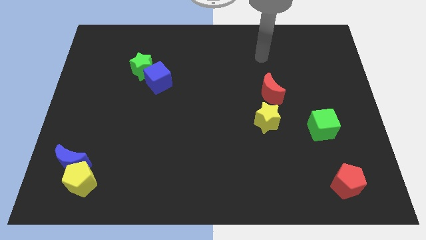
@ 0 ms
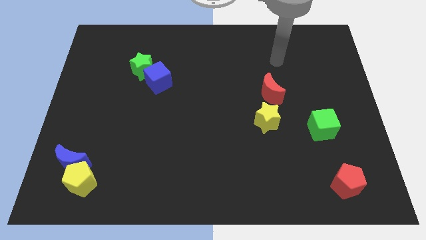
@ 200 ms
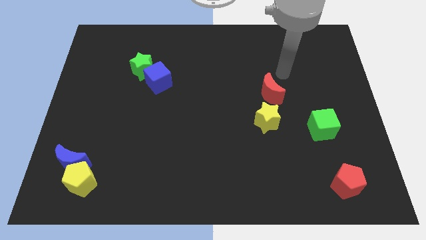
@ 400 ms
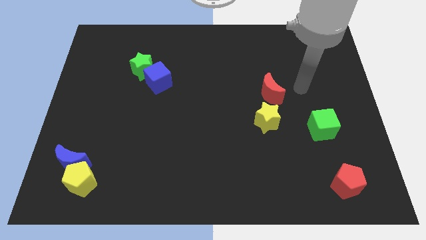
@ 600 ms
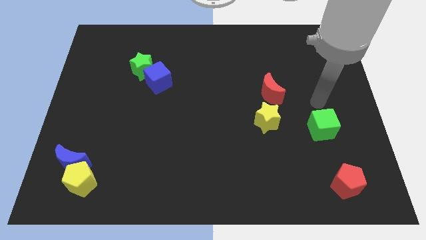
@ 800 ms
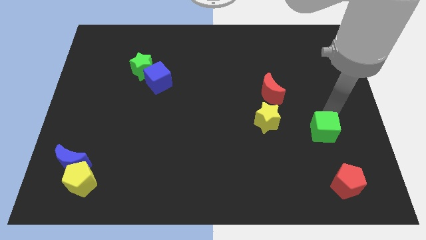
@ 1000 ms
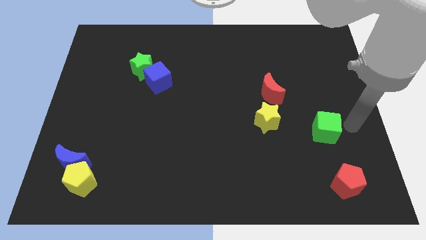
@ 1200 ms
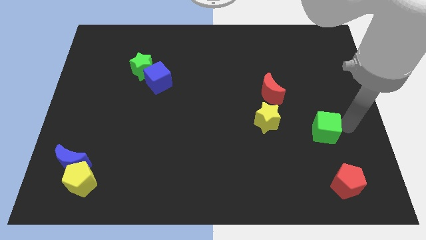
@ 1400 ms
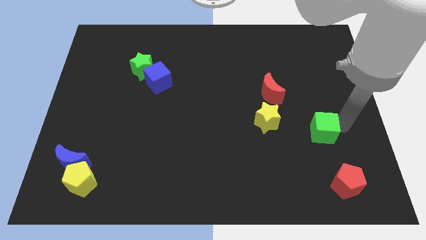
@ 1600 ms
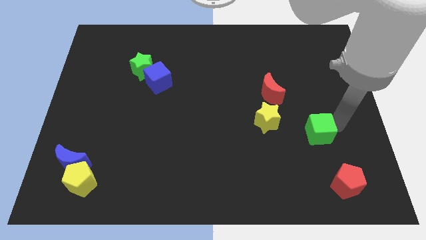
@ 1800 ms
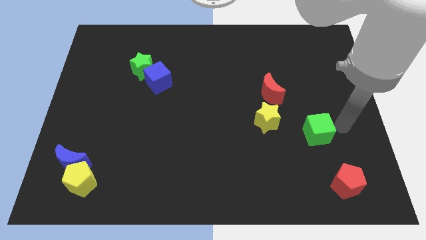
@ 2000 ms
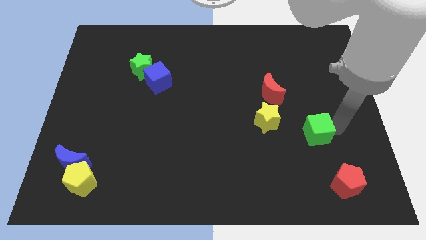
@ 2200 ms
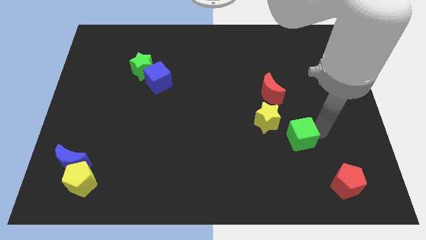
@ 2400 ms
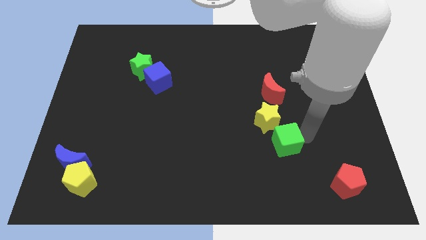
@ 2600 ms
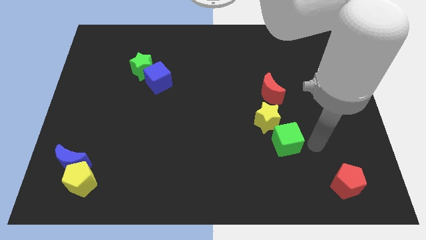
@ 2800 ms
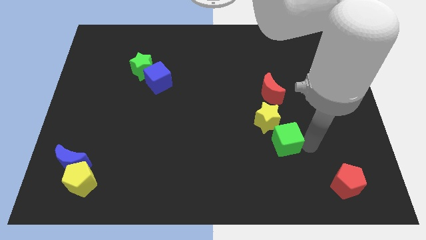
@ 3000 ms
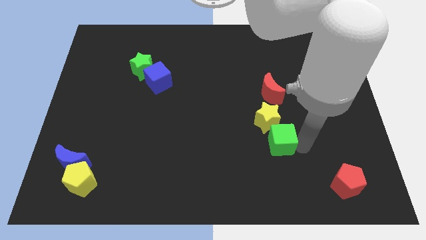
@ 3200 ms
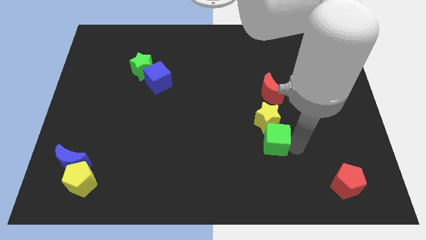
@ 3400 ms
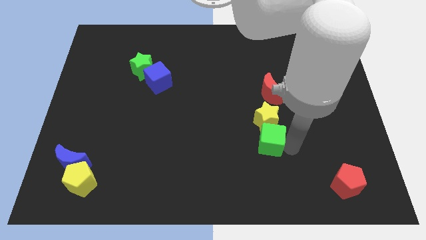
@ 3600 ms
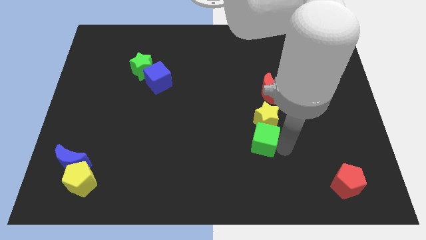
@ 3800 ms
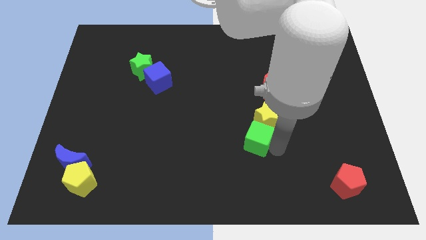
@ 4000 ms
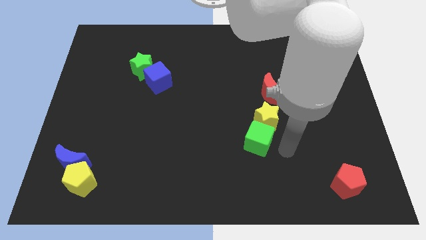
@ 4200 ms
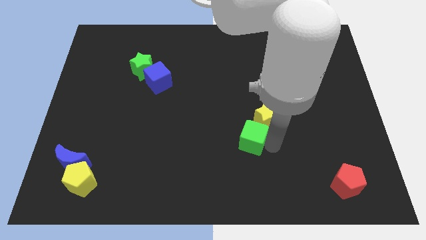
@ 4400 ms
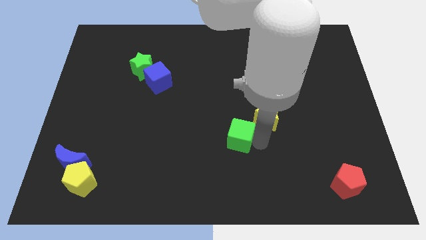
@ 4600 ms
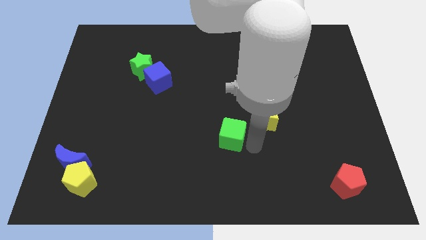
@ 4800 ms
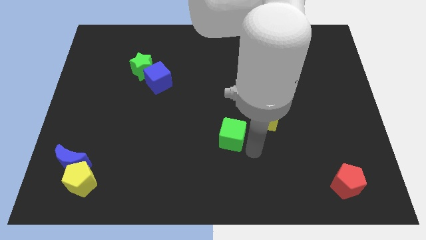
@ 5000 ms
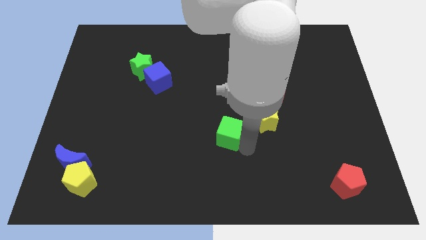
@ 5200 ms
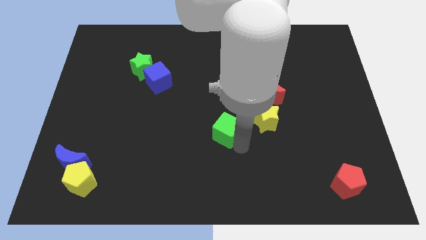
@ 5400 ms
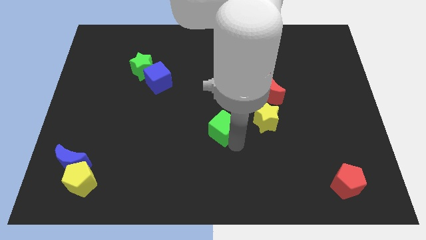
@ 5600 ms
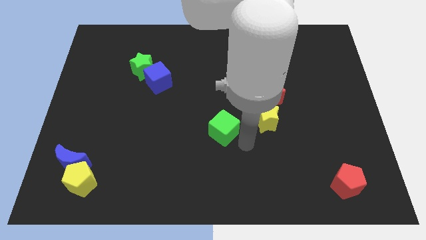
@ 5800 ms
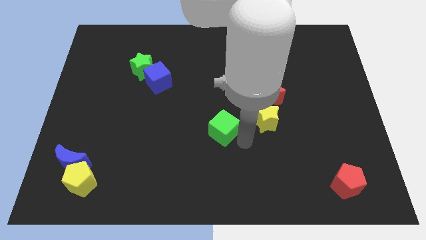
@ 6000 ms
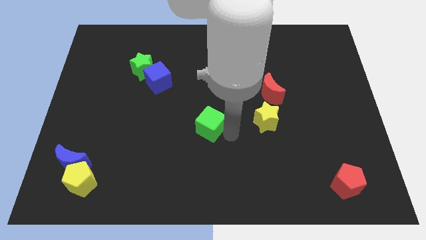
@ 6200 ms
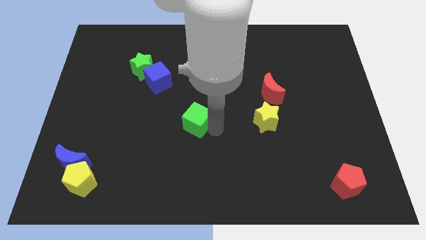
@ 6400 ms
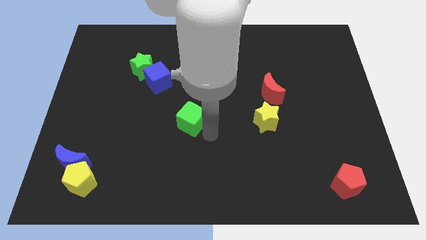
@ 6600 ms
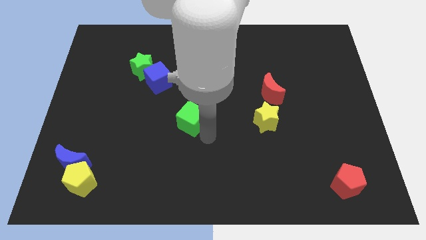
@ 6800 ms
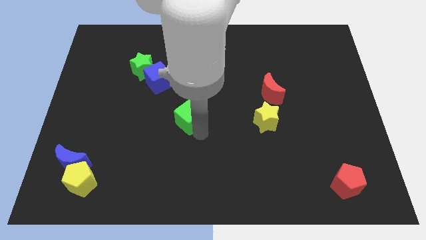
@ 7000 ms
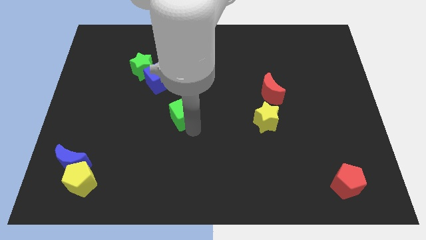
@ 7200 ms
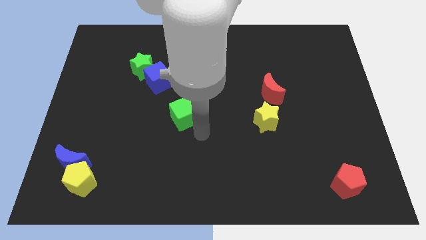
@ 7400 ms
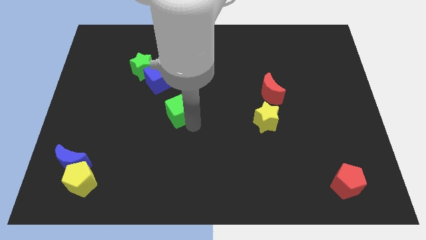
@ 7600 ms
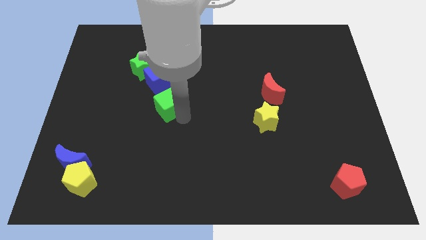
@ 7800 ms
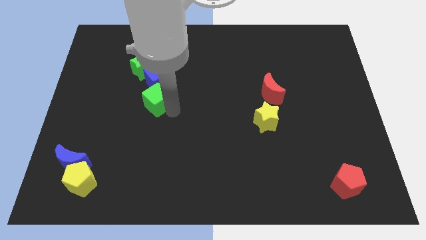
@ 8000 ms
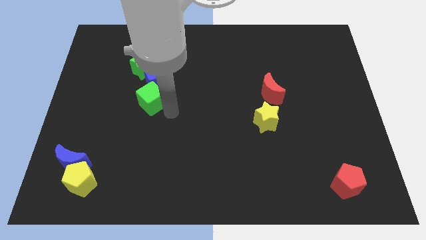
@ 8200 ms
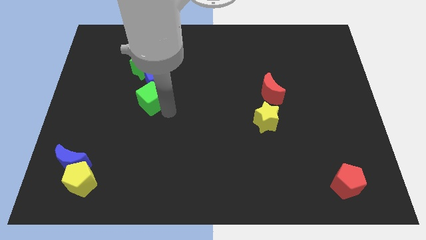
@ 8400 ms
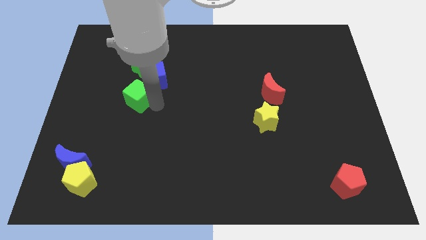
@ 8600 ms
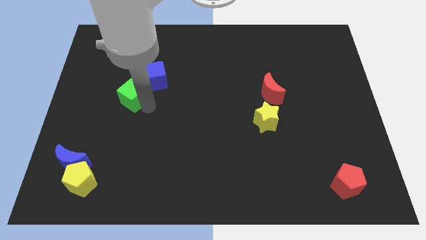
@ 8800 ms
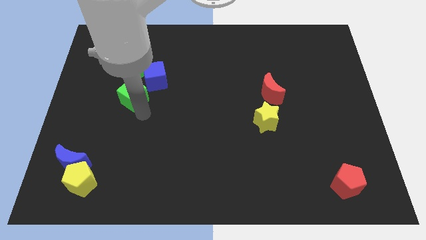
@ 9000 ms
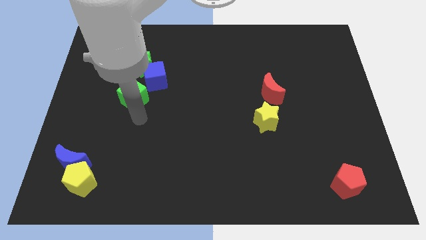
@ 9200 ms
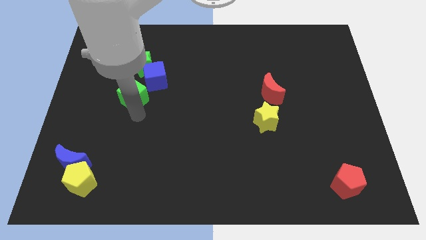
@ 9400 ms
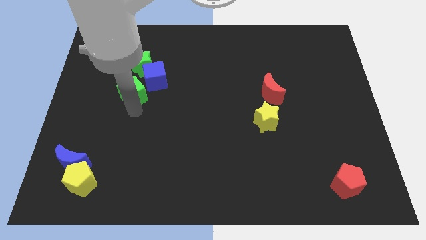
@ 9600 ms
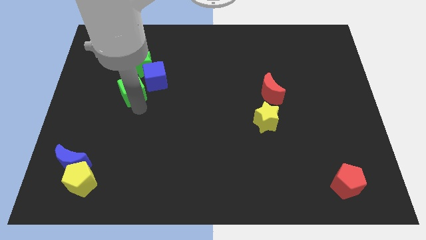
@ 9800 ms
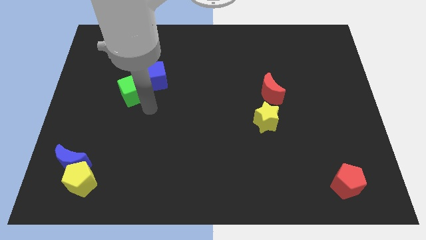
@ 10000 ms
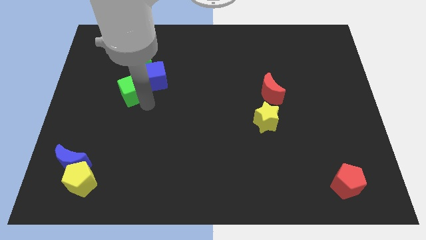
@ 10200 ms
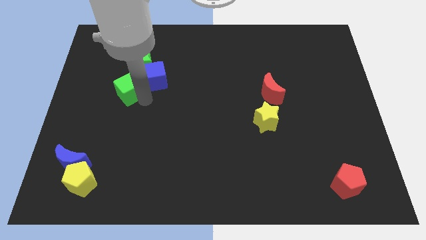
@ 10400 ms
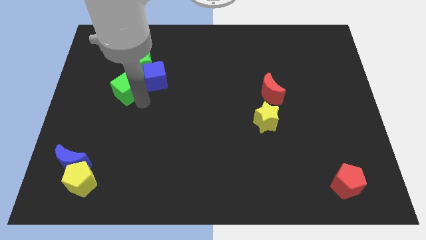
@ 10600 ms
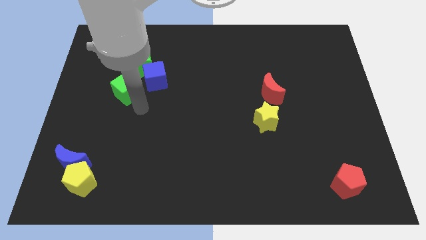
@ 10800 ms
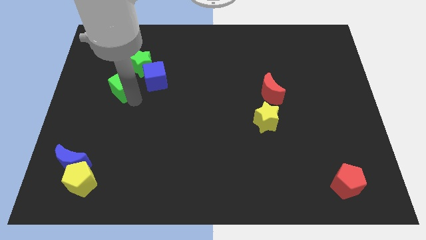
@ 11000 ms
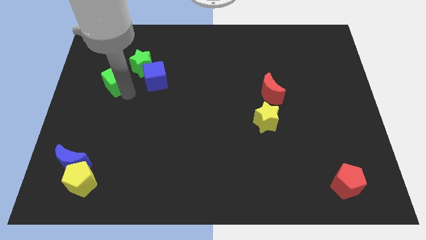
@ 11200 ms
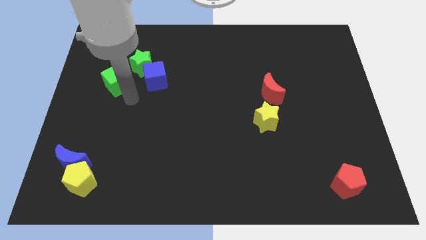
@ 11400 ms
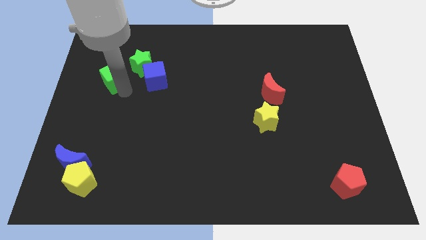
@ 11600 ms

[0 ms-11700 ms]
slide the green cube left of the green star

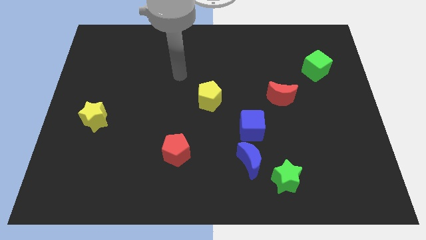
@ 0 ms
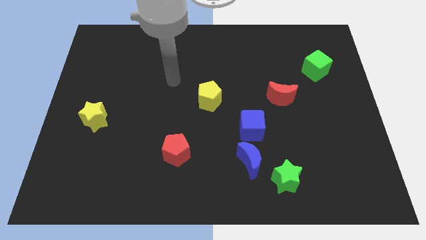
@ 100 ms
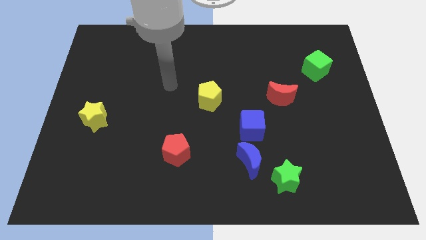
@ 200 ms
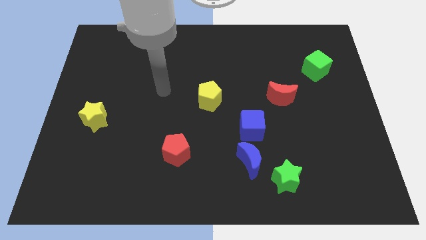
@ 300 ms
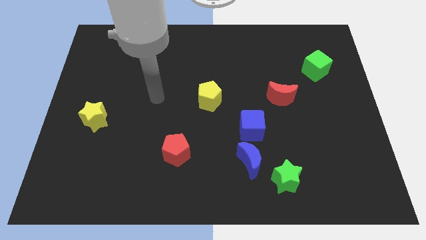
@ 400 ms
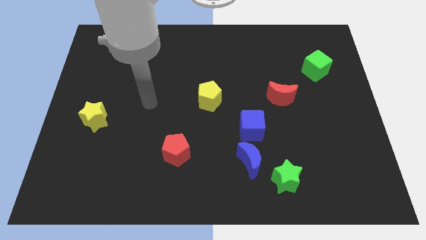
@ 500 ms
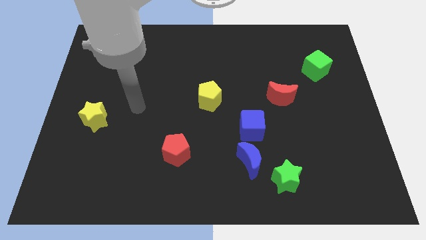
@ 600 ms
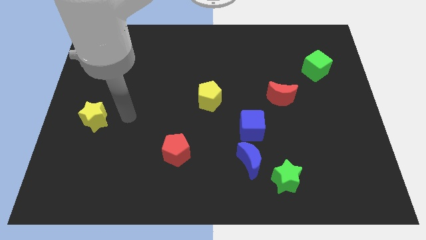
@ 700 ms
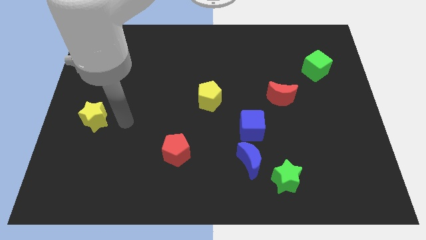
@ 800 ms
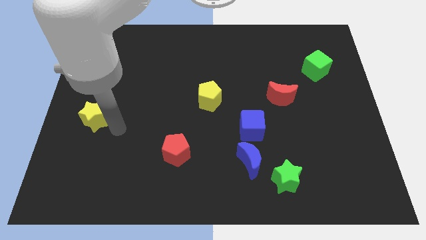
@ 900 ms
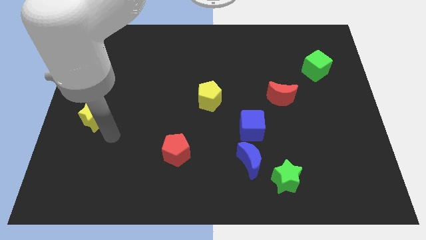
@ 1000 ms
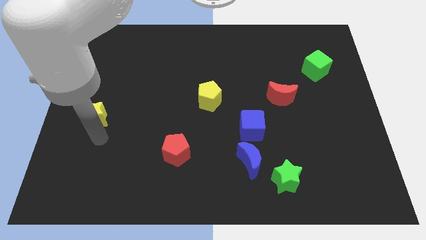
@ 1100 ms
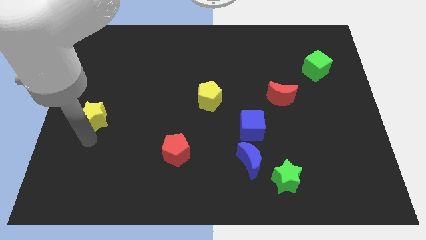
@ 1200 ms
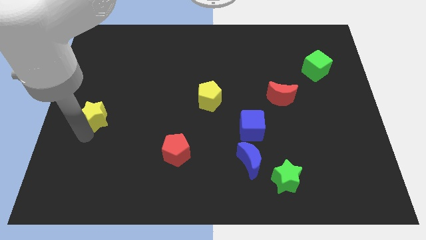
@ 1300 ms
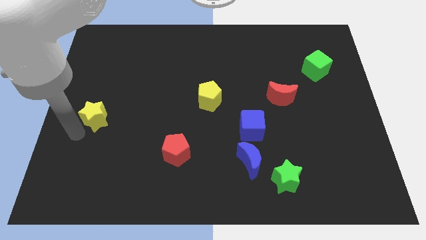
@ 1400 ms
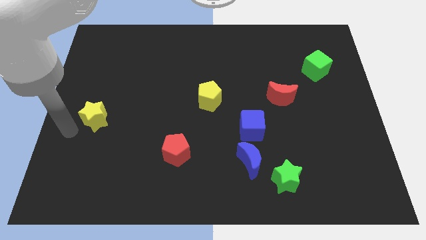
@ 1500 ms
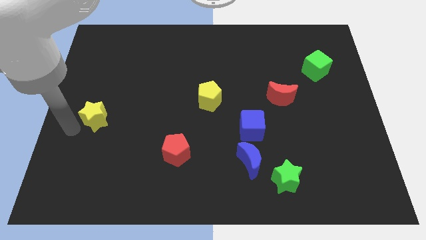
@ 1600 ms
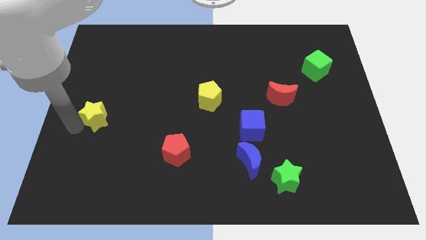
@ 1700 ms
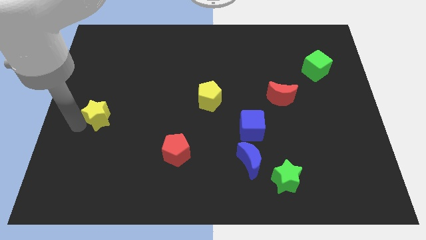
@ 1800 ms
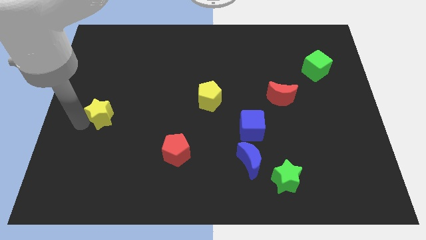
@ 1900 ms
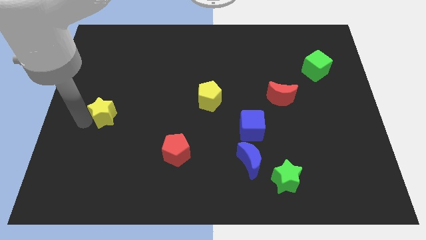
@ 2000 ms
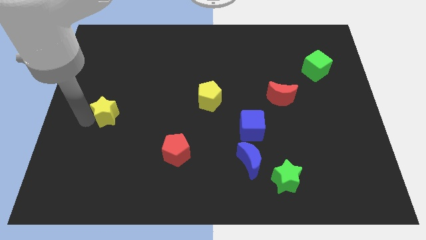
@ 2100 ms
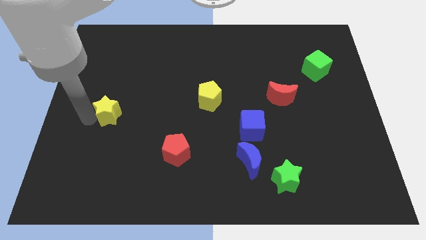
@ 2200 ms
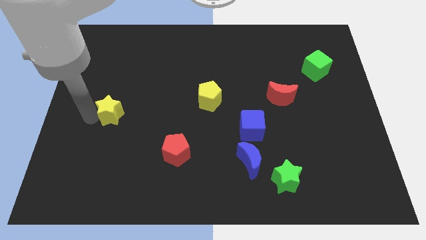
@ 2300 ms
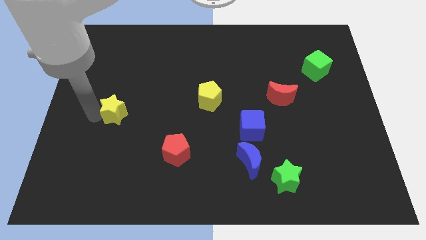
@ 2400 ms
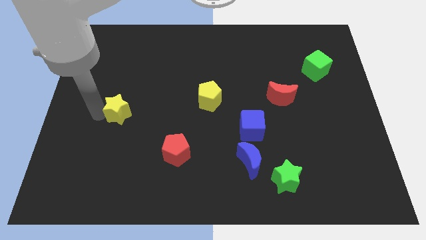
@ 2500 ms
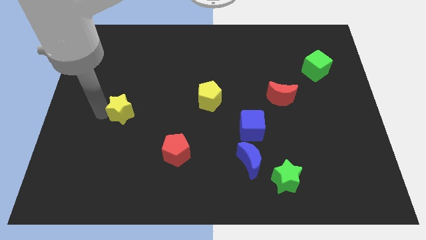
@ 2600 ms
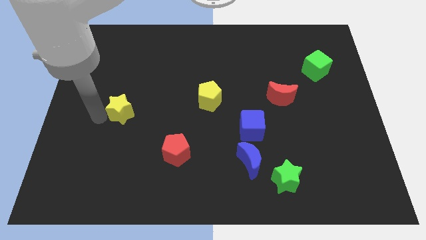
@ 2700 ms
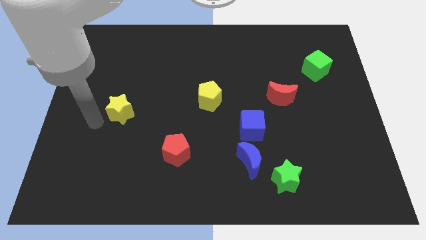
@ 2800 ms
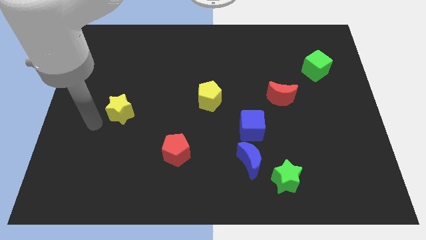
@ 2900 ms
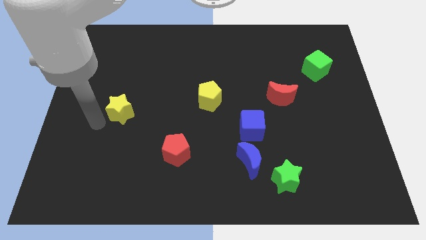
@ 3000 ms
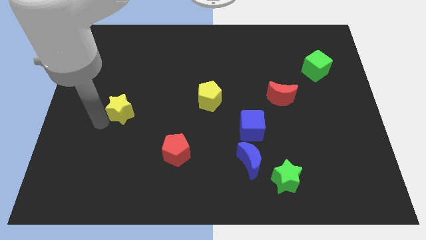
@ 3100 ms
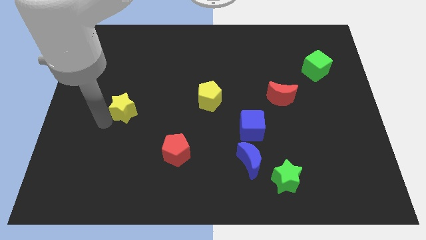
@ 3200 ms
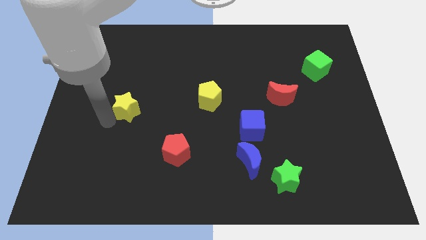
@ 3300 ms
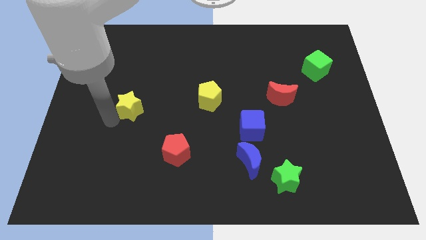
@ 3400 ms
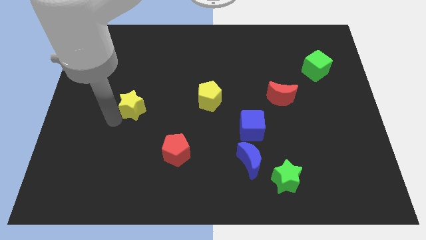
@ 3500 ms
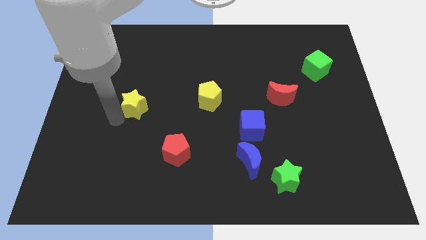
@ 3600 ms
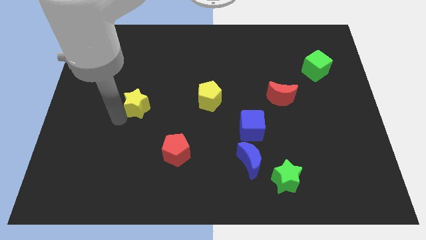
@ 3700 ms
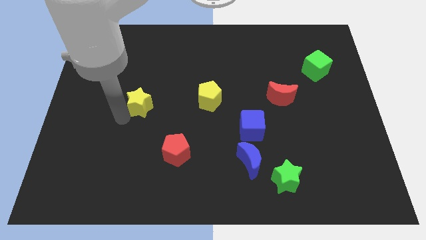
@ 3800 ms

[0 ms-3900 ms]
move the yellow star just left of the yellow pentagon
